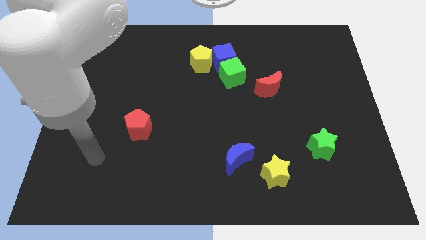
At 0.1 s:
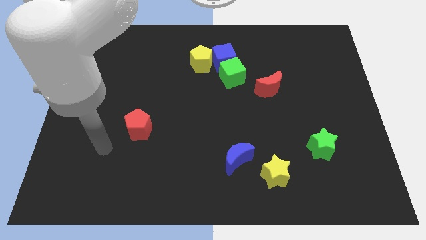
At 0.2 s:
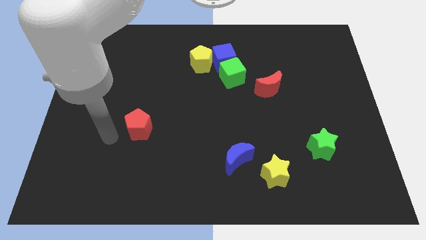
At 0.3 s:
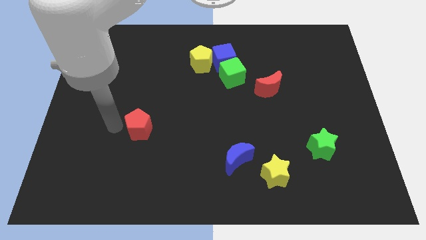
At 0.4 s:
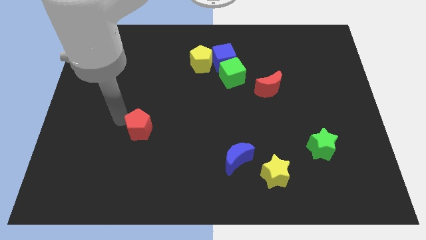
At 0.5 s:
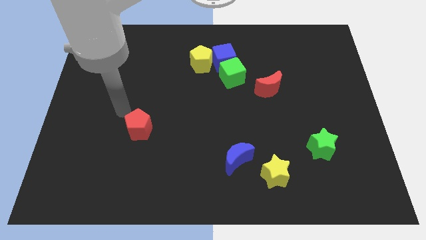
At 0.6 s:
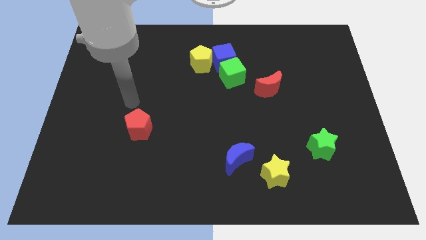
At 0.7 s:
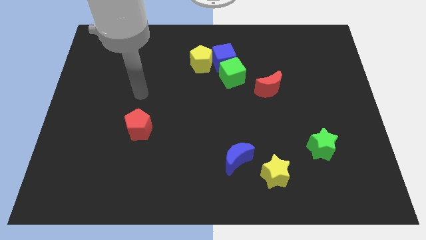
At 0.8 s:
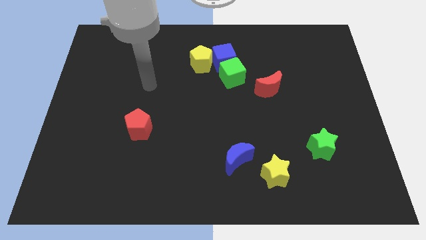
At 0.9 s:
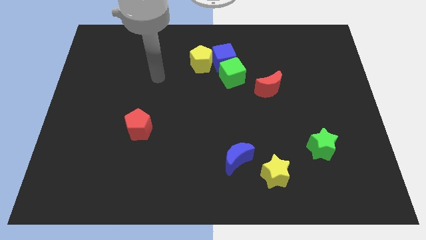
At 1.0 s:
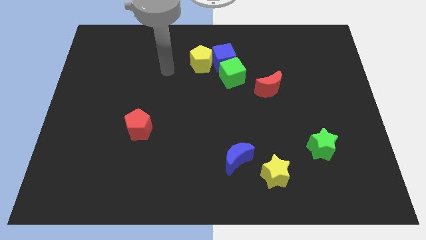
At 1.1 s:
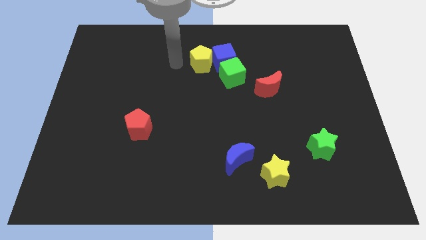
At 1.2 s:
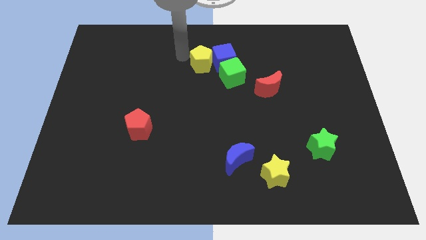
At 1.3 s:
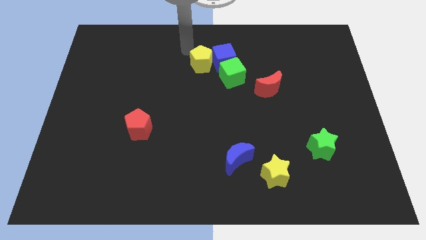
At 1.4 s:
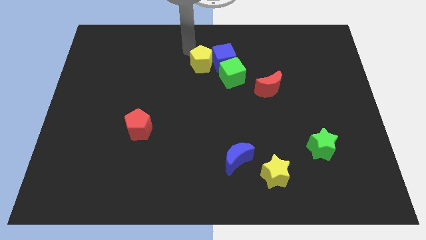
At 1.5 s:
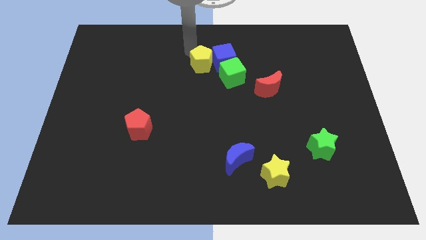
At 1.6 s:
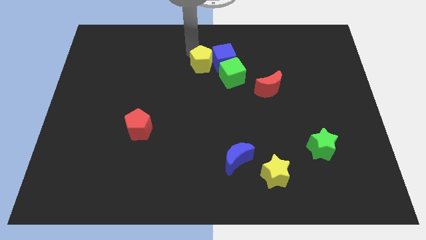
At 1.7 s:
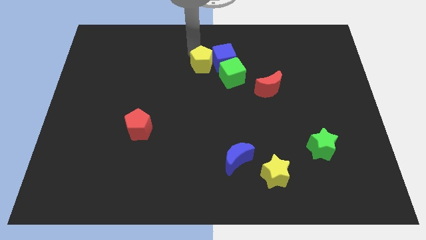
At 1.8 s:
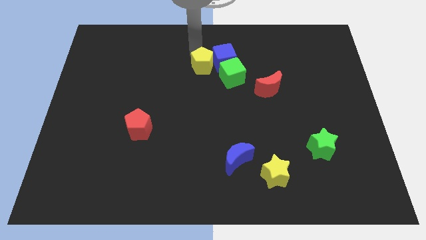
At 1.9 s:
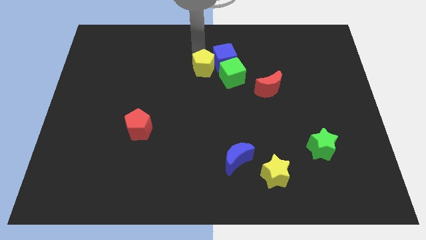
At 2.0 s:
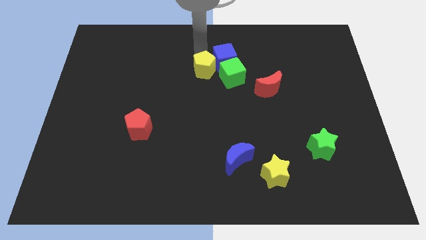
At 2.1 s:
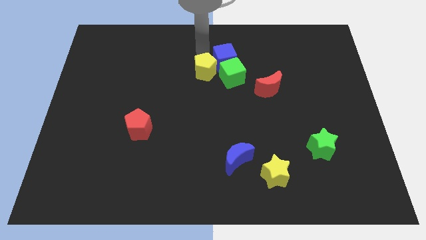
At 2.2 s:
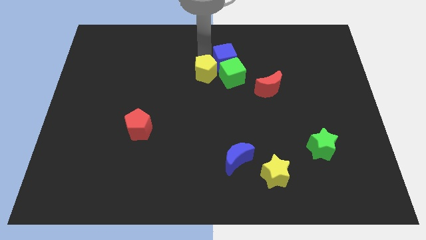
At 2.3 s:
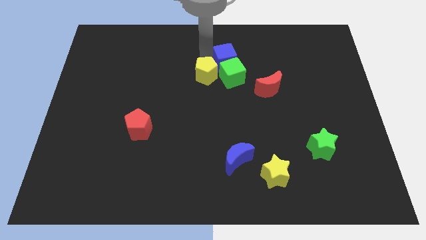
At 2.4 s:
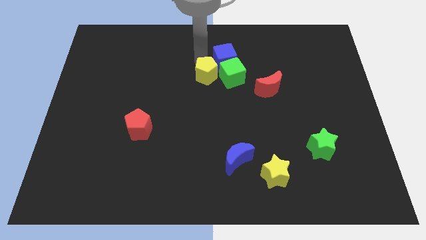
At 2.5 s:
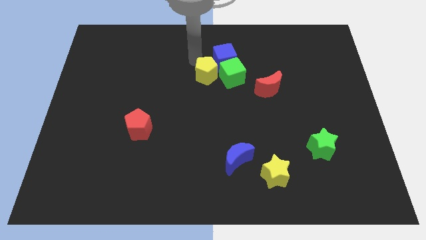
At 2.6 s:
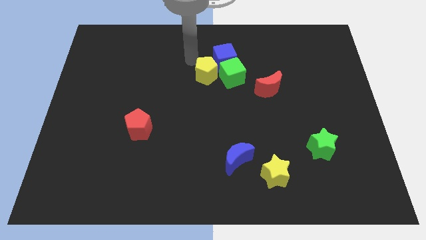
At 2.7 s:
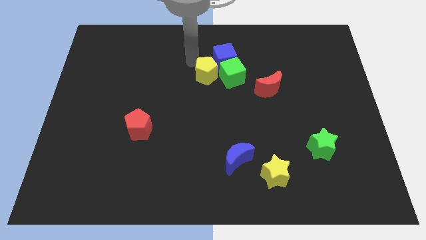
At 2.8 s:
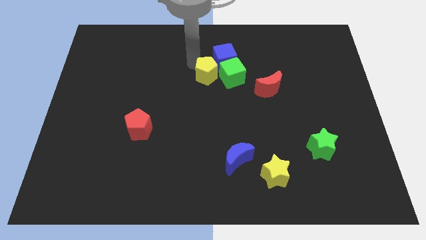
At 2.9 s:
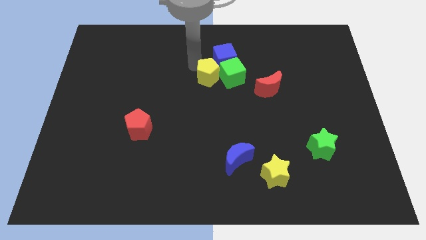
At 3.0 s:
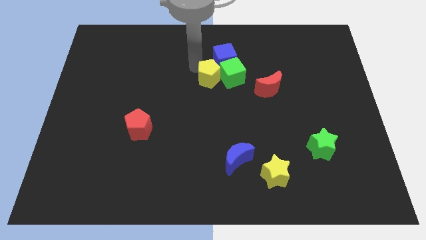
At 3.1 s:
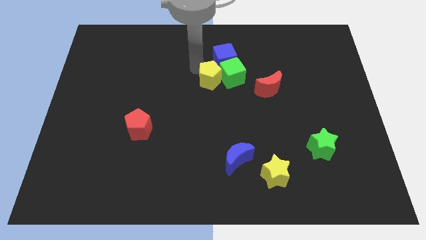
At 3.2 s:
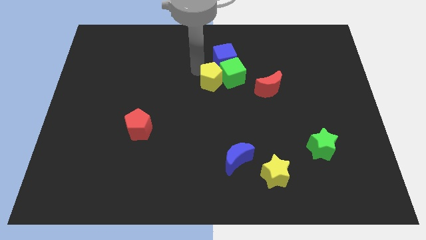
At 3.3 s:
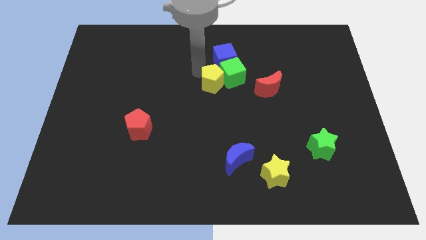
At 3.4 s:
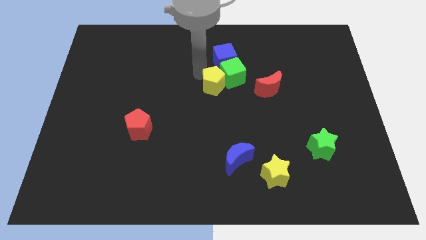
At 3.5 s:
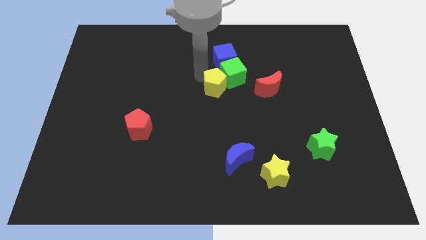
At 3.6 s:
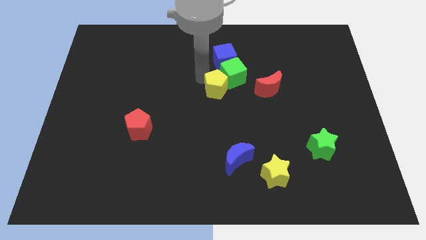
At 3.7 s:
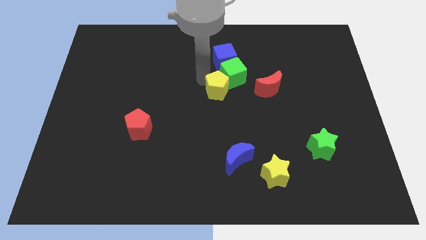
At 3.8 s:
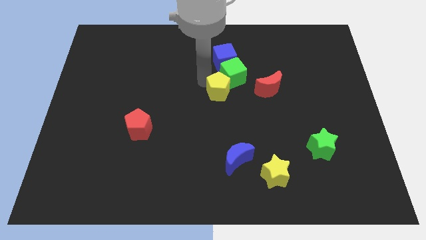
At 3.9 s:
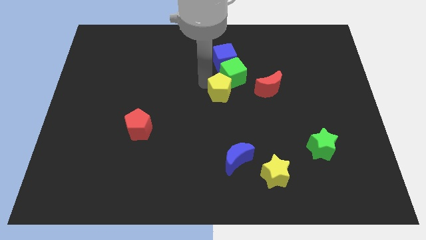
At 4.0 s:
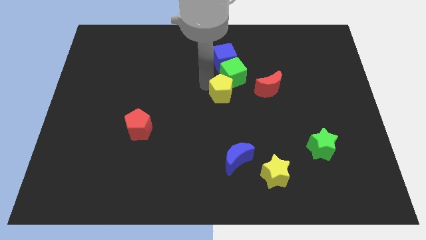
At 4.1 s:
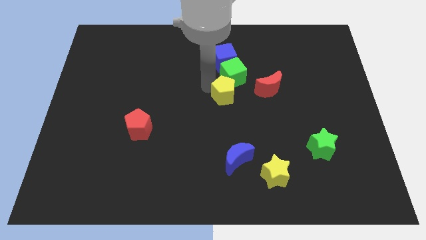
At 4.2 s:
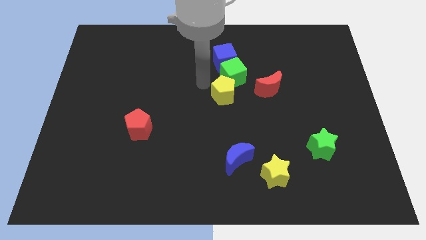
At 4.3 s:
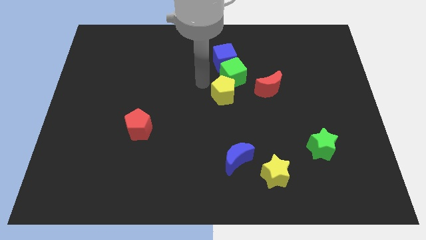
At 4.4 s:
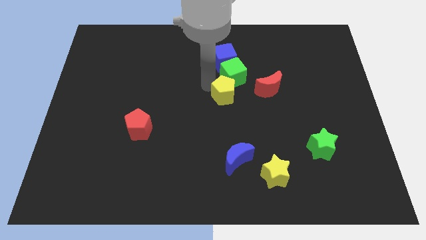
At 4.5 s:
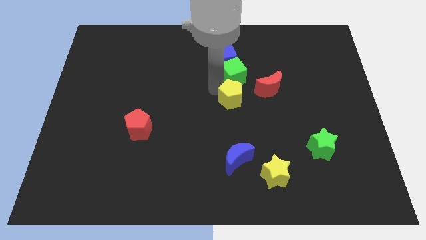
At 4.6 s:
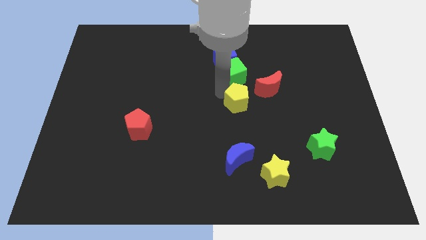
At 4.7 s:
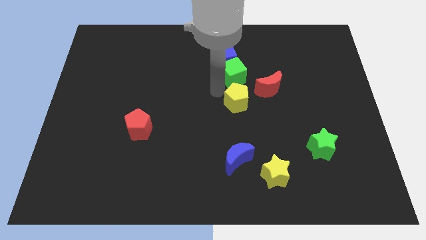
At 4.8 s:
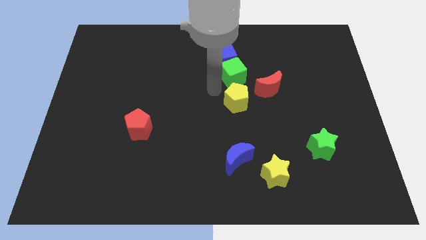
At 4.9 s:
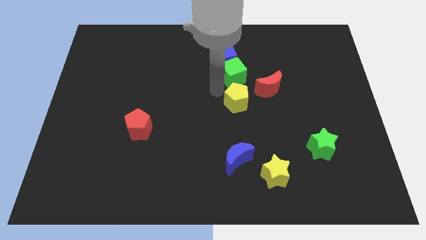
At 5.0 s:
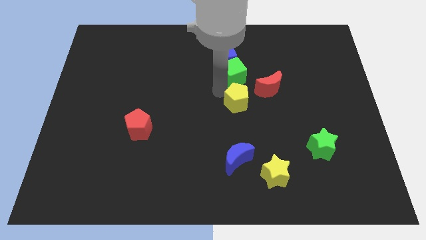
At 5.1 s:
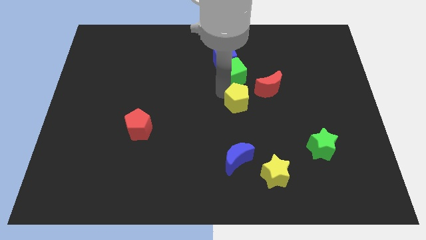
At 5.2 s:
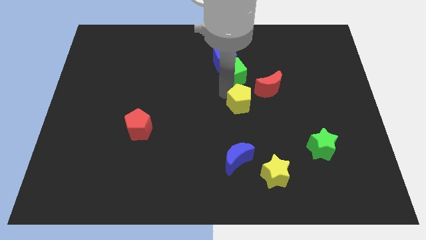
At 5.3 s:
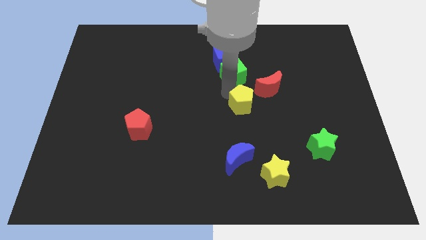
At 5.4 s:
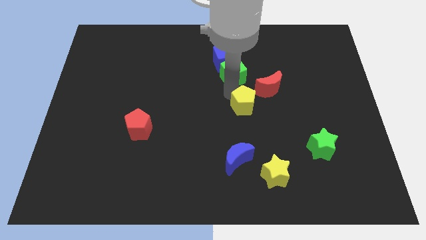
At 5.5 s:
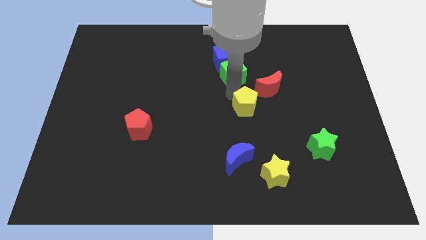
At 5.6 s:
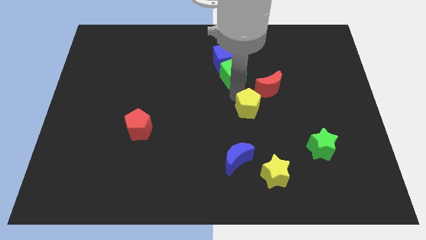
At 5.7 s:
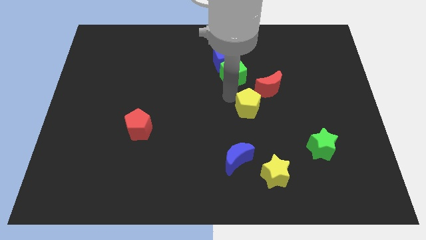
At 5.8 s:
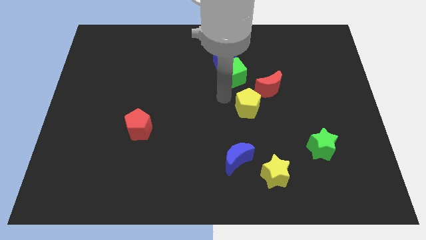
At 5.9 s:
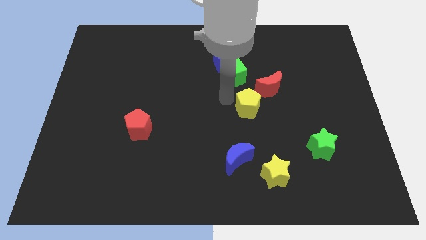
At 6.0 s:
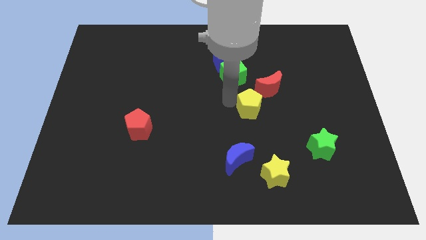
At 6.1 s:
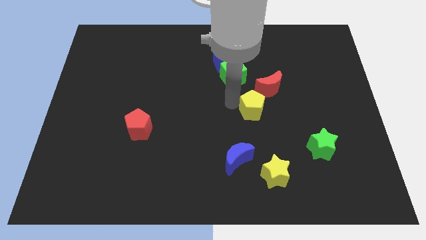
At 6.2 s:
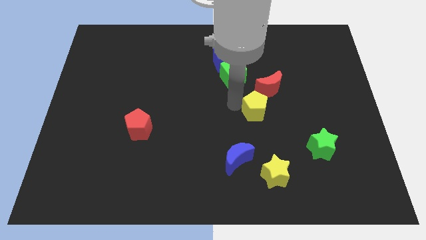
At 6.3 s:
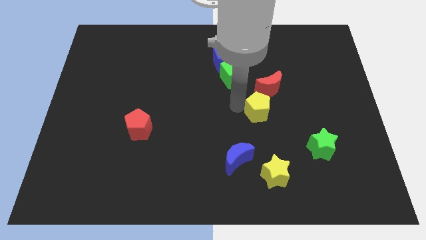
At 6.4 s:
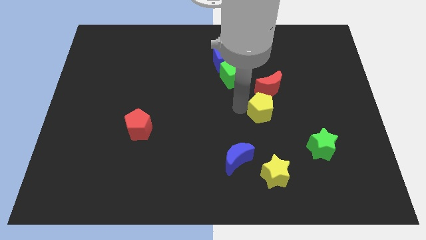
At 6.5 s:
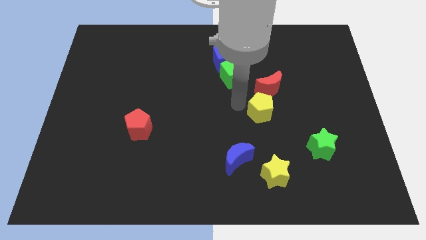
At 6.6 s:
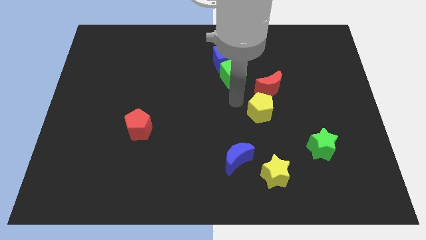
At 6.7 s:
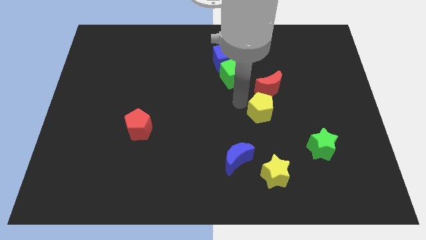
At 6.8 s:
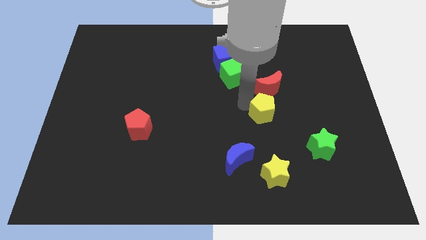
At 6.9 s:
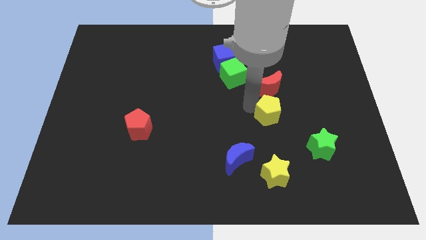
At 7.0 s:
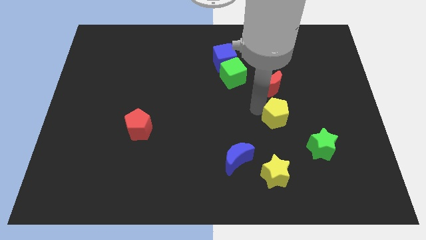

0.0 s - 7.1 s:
slide the yellow pentagon diagonally up and to the left of the green star

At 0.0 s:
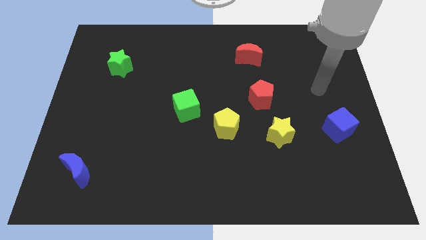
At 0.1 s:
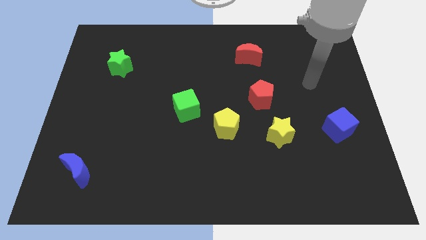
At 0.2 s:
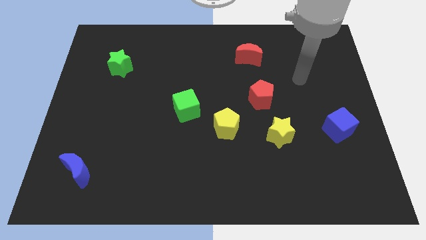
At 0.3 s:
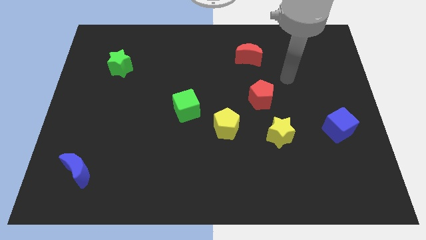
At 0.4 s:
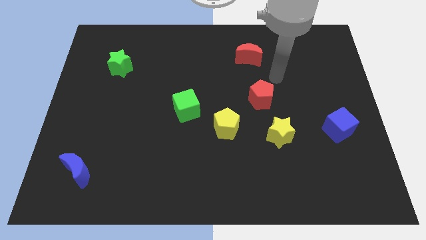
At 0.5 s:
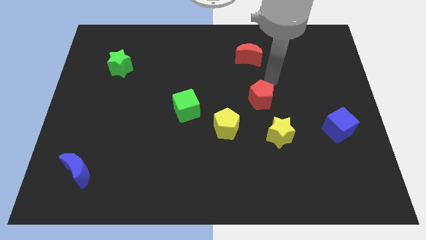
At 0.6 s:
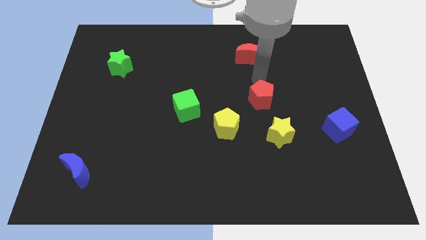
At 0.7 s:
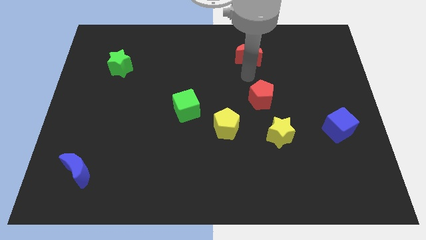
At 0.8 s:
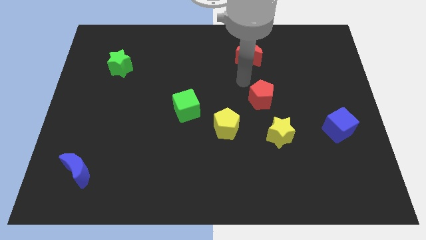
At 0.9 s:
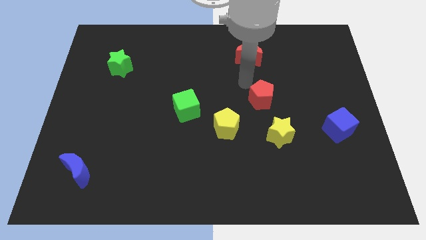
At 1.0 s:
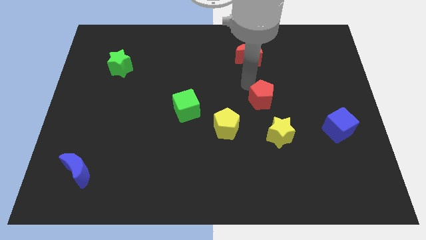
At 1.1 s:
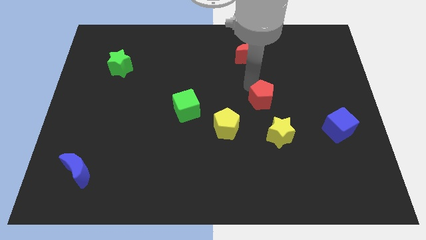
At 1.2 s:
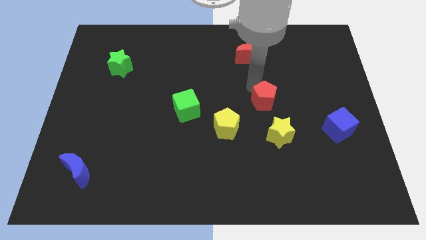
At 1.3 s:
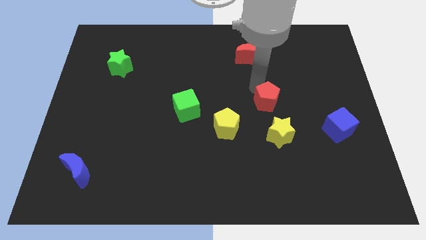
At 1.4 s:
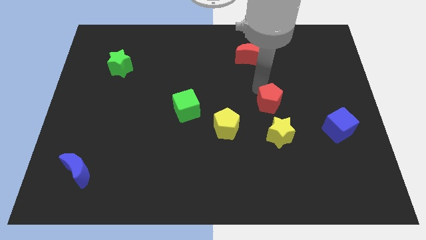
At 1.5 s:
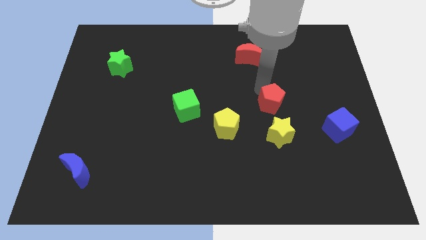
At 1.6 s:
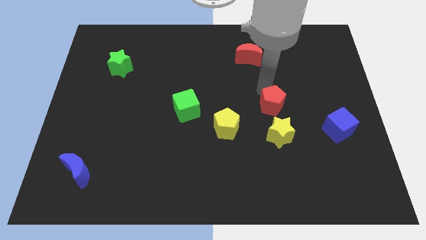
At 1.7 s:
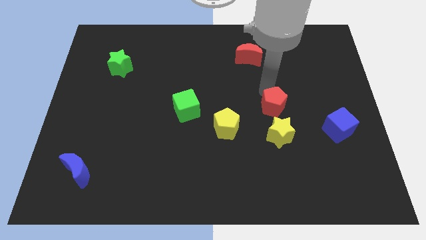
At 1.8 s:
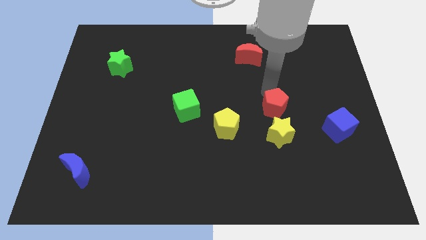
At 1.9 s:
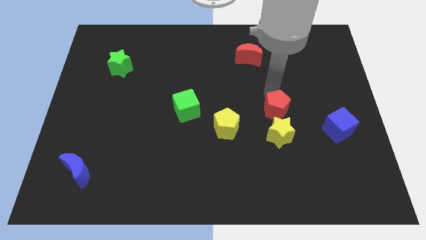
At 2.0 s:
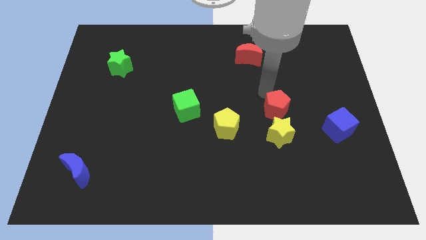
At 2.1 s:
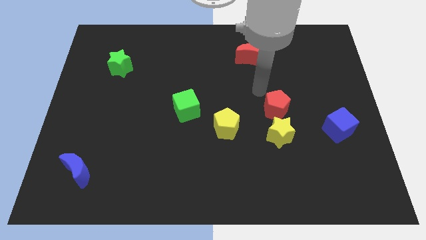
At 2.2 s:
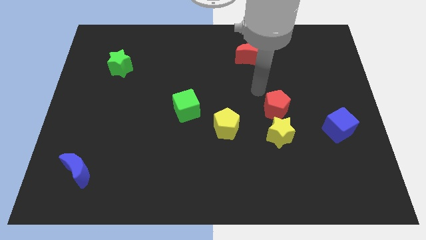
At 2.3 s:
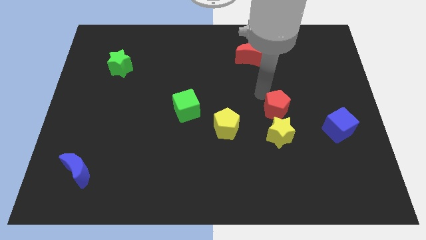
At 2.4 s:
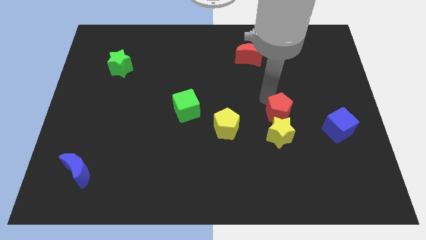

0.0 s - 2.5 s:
move the red pentagon to the right side of the yellow pentagon
